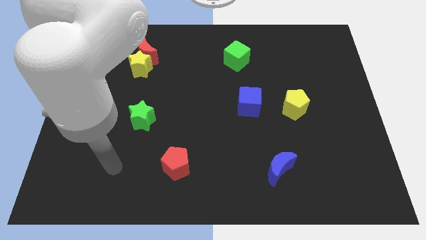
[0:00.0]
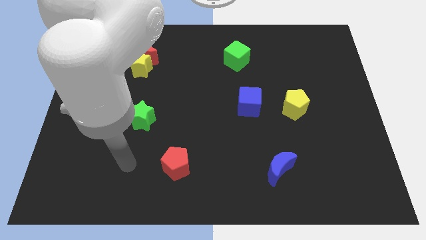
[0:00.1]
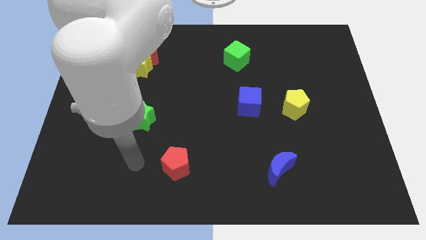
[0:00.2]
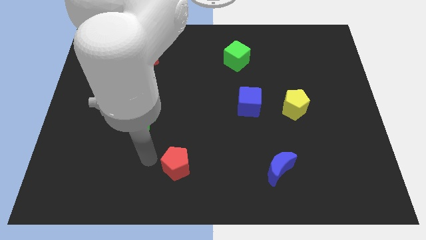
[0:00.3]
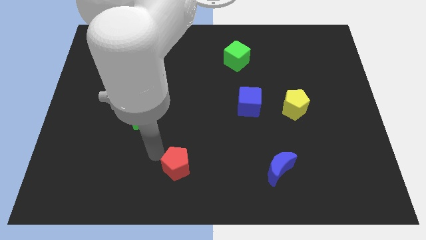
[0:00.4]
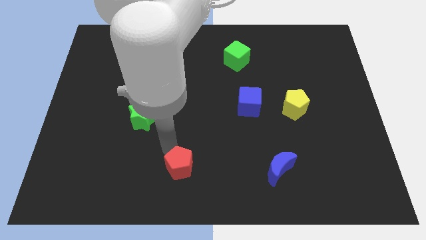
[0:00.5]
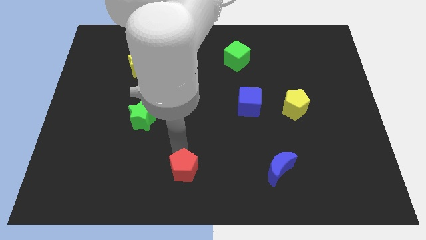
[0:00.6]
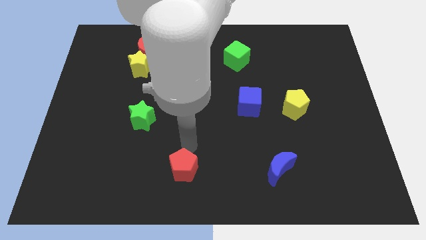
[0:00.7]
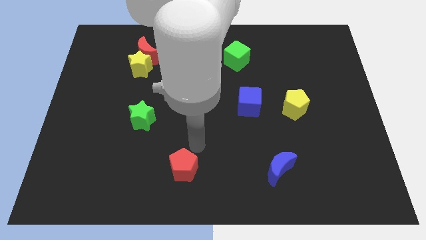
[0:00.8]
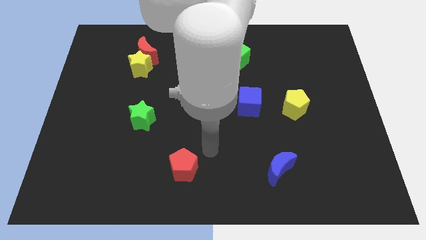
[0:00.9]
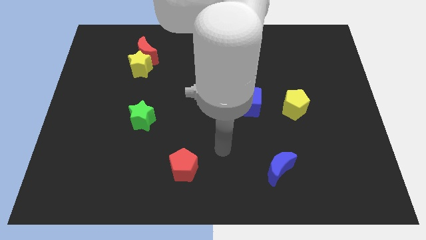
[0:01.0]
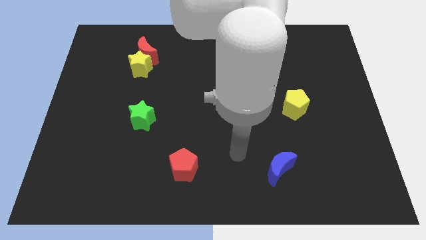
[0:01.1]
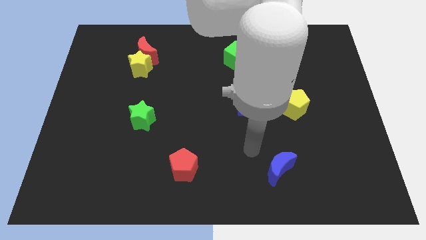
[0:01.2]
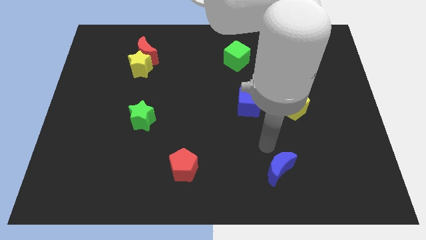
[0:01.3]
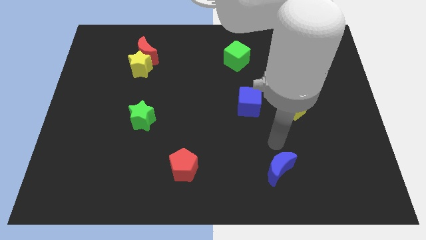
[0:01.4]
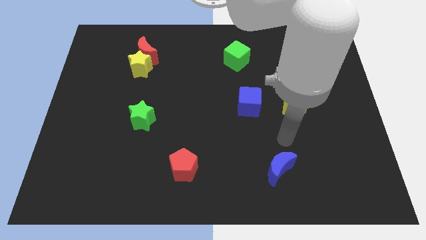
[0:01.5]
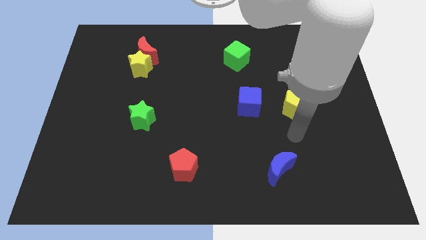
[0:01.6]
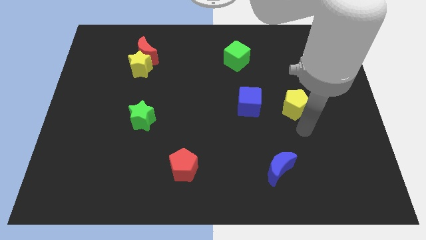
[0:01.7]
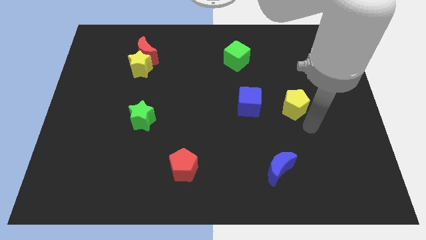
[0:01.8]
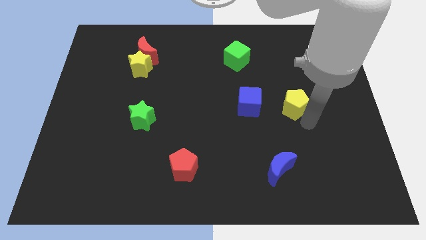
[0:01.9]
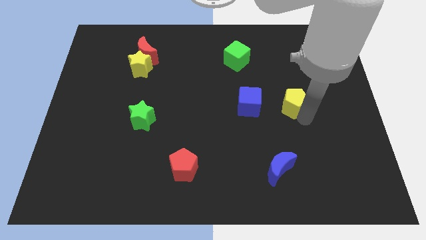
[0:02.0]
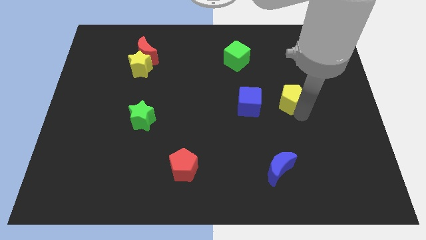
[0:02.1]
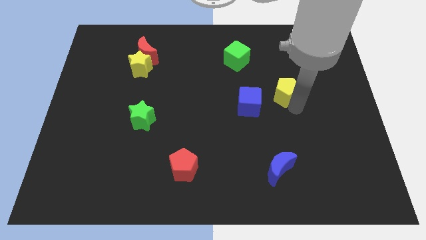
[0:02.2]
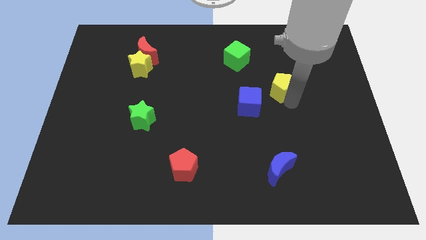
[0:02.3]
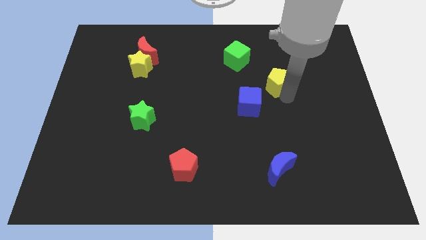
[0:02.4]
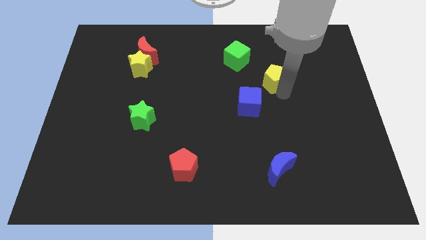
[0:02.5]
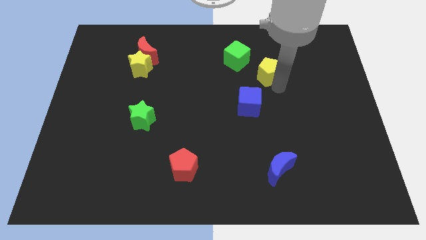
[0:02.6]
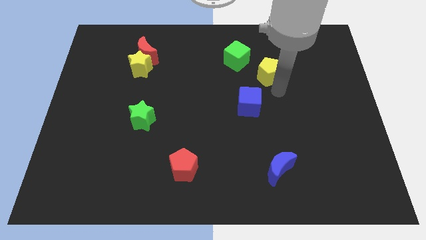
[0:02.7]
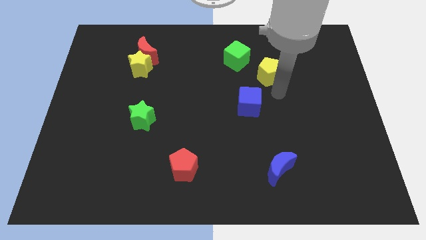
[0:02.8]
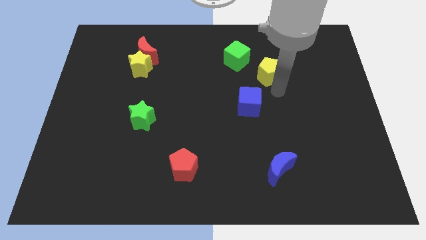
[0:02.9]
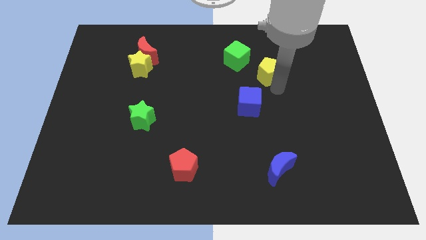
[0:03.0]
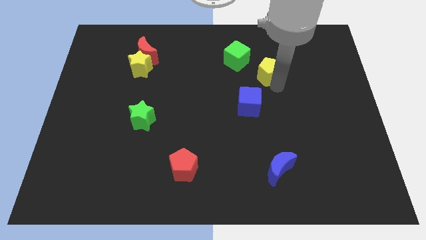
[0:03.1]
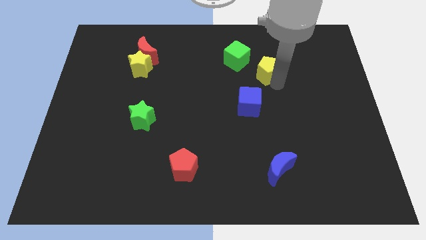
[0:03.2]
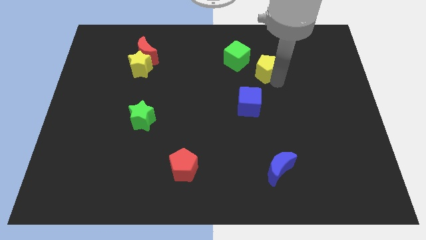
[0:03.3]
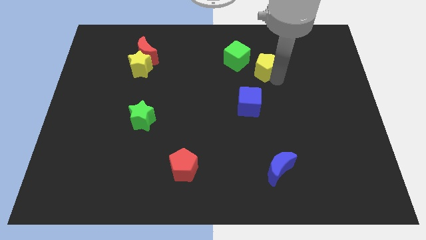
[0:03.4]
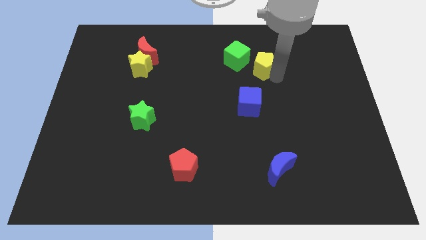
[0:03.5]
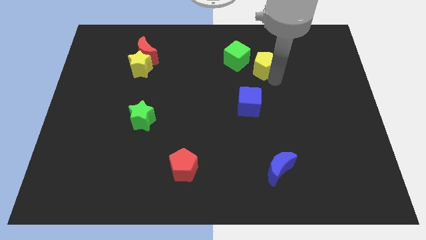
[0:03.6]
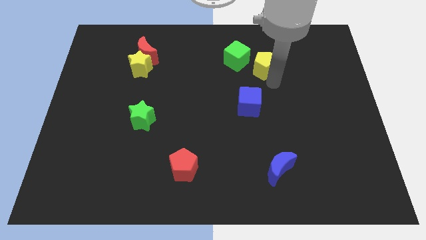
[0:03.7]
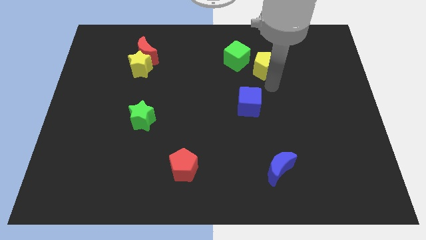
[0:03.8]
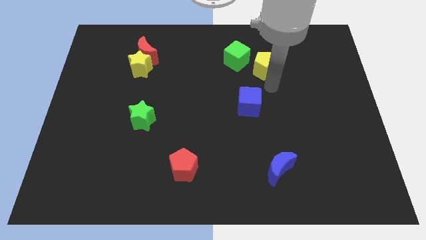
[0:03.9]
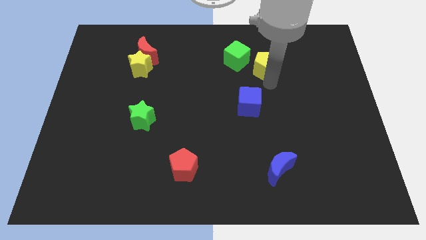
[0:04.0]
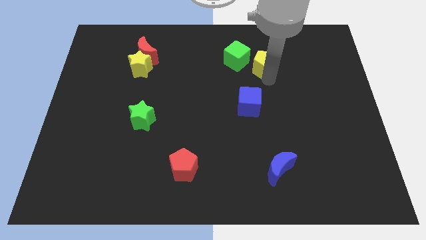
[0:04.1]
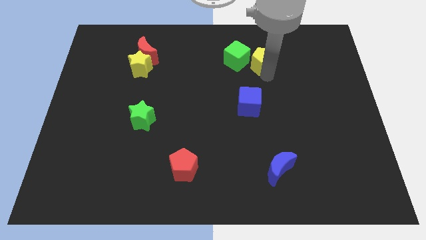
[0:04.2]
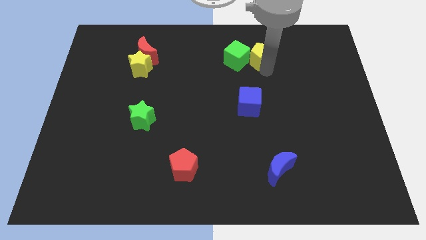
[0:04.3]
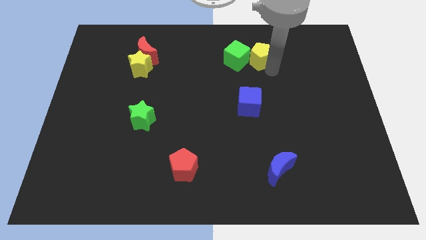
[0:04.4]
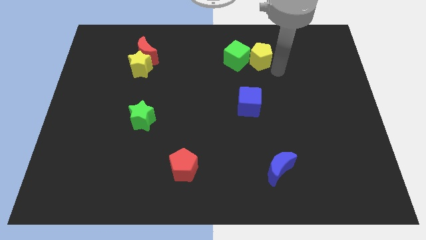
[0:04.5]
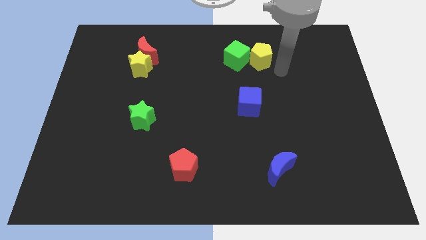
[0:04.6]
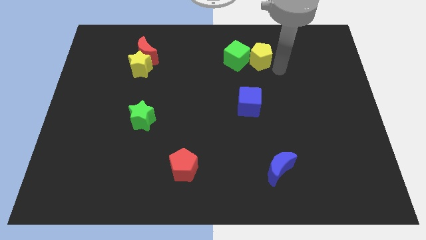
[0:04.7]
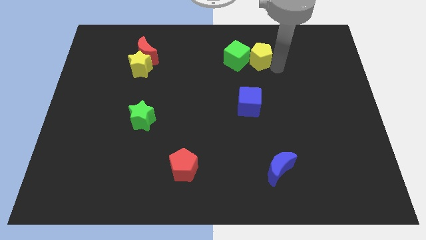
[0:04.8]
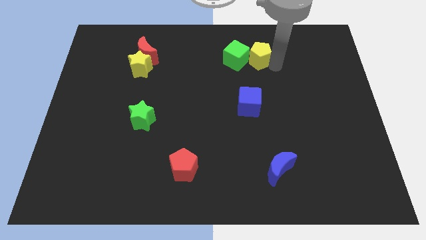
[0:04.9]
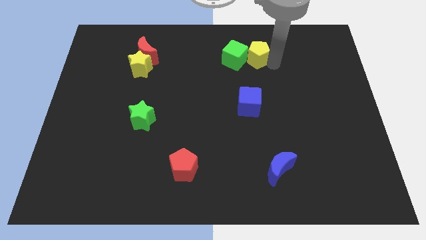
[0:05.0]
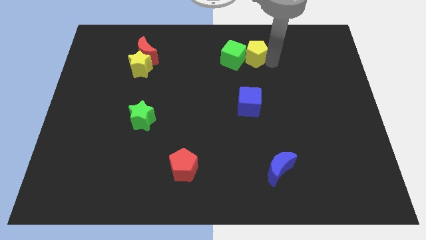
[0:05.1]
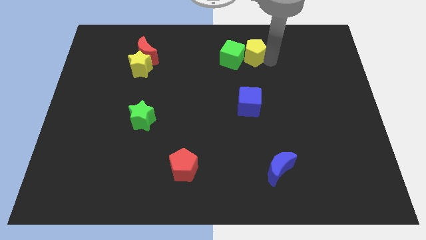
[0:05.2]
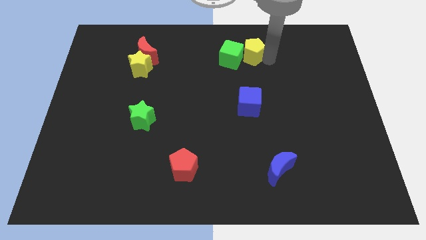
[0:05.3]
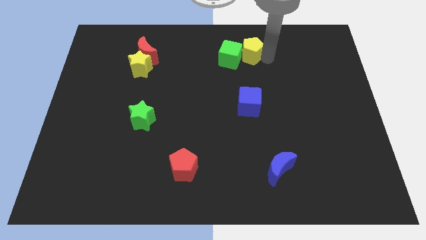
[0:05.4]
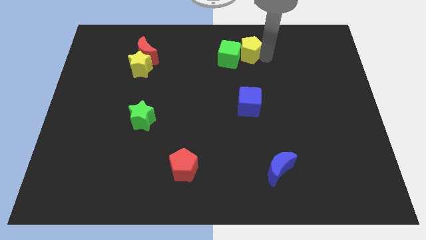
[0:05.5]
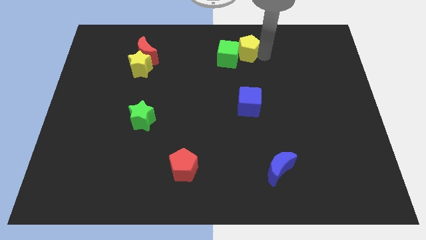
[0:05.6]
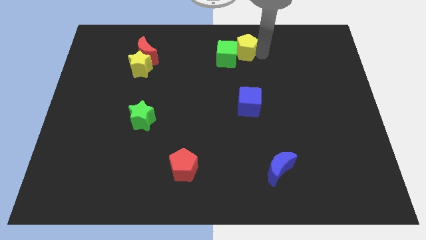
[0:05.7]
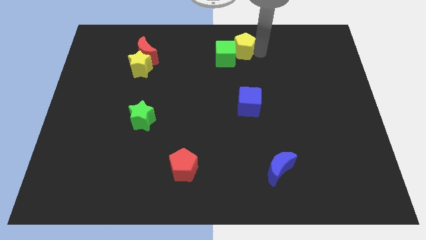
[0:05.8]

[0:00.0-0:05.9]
move the yellow pentagon to the top

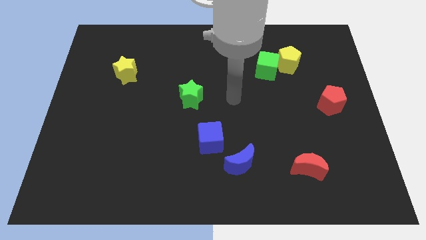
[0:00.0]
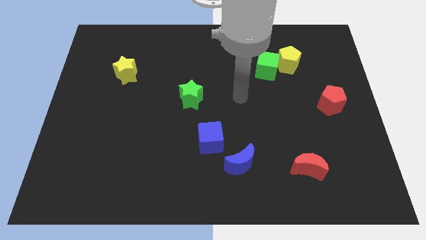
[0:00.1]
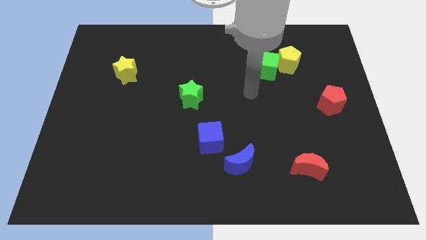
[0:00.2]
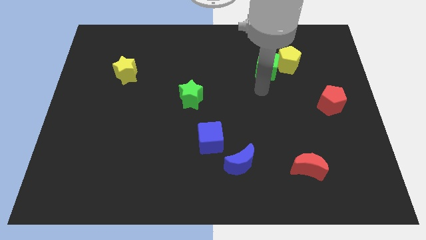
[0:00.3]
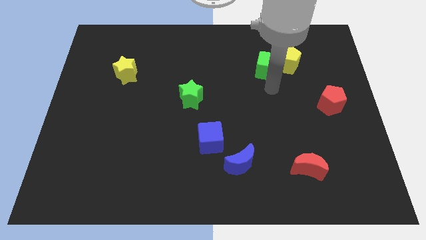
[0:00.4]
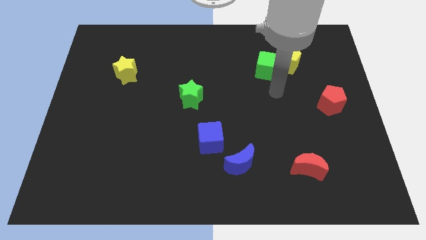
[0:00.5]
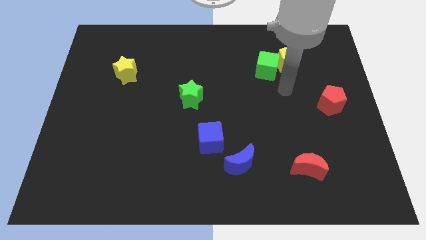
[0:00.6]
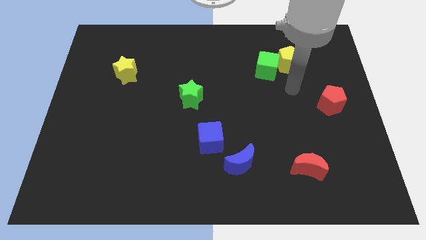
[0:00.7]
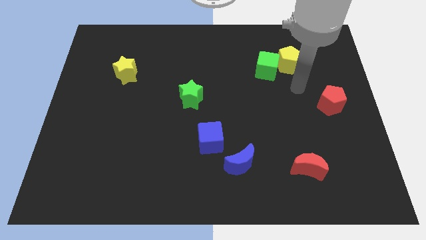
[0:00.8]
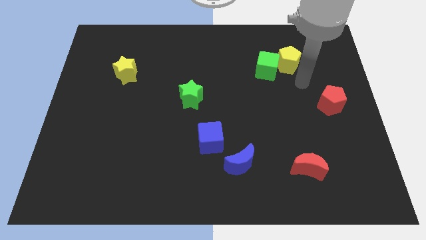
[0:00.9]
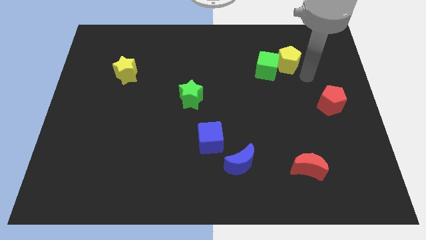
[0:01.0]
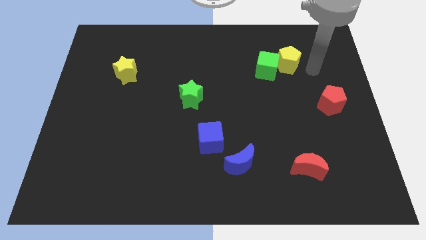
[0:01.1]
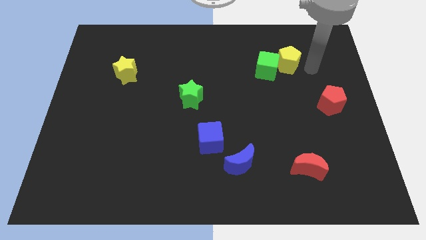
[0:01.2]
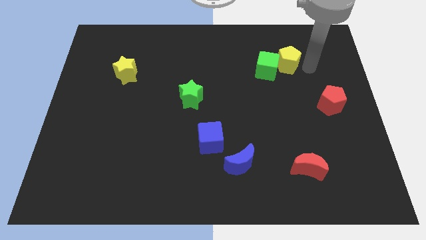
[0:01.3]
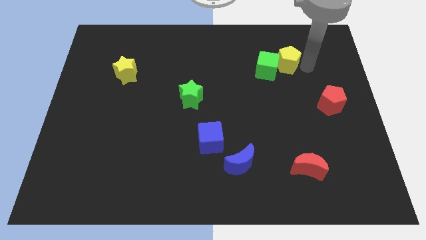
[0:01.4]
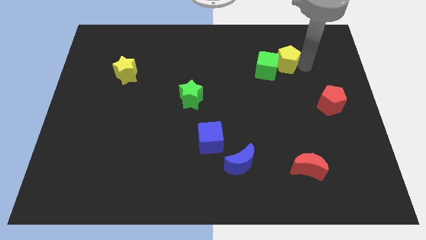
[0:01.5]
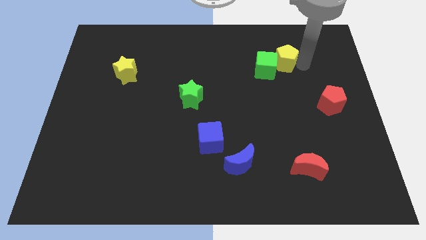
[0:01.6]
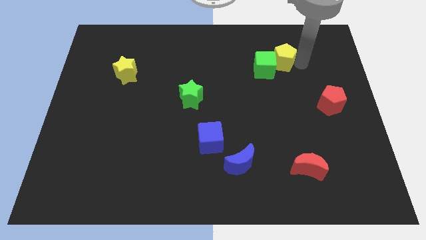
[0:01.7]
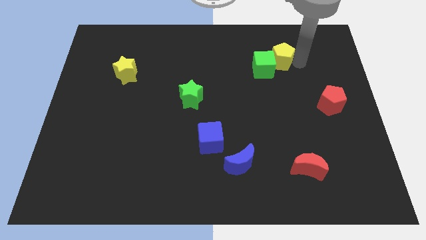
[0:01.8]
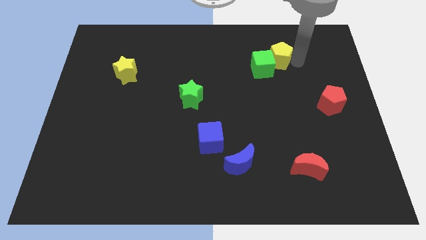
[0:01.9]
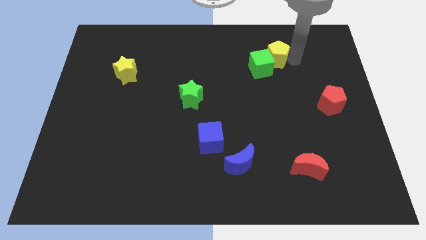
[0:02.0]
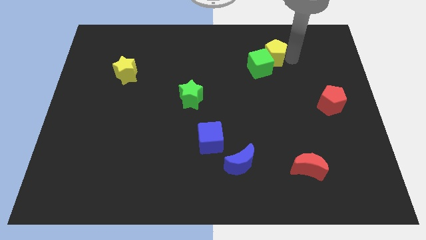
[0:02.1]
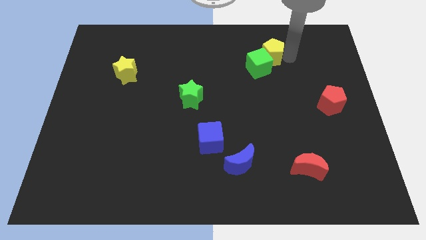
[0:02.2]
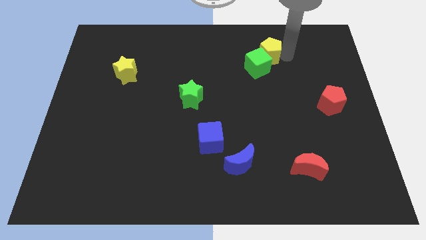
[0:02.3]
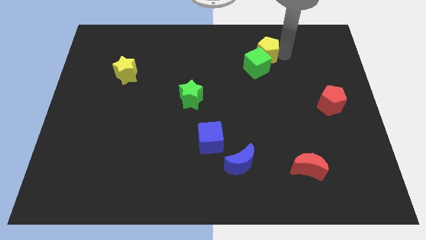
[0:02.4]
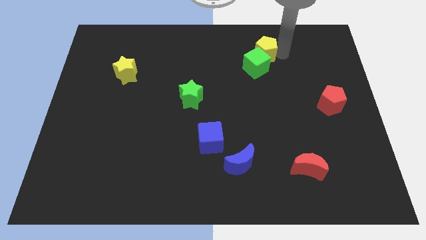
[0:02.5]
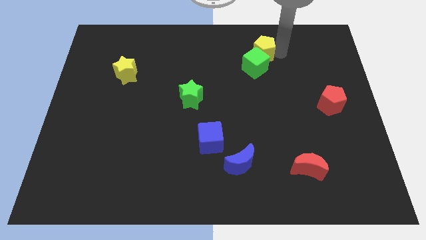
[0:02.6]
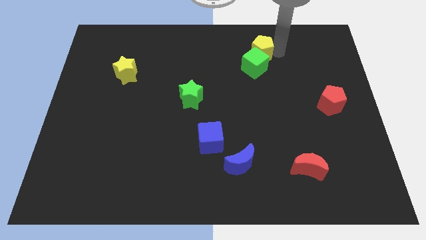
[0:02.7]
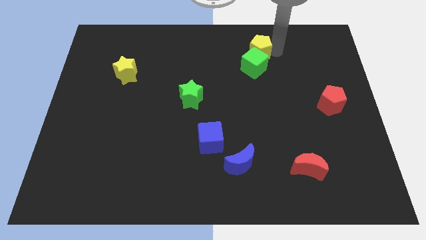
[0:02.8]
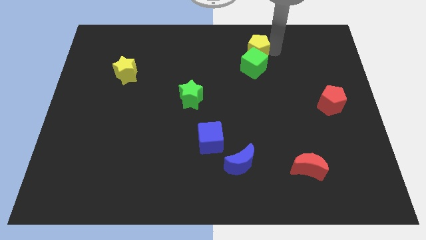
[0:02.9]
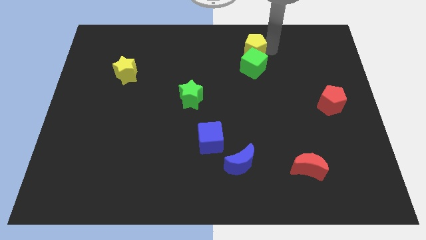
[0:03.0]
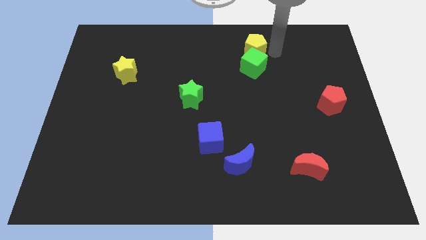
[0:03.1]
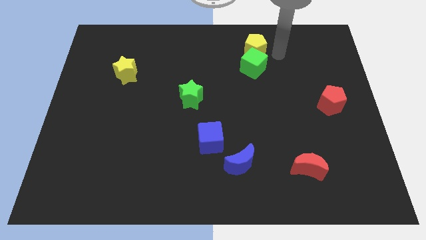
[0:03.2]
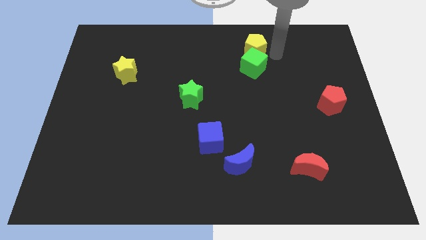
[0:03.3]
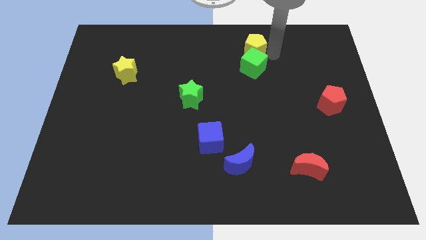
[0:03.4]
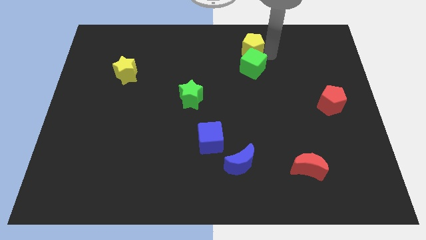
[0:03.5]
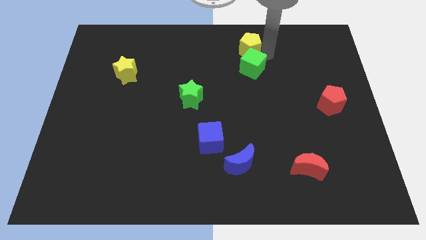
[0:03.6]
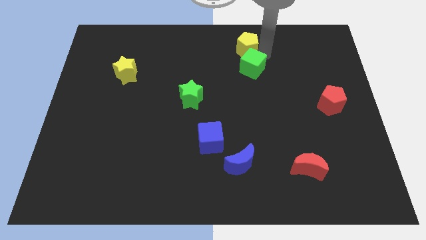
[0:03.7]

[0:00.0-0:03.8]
put the yellow pentagon to the towards your base
